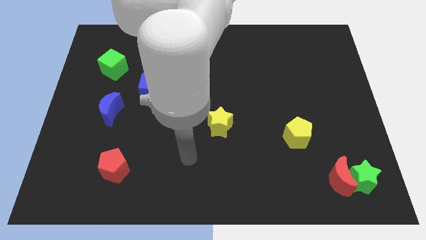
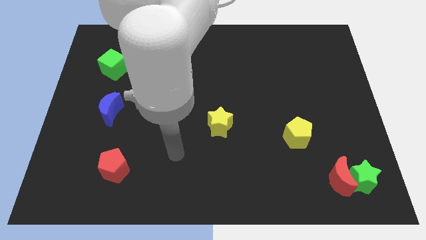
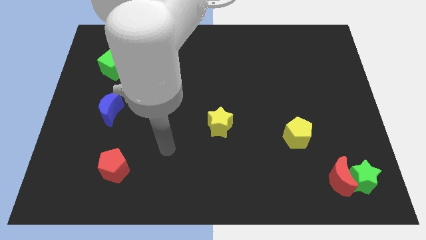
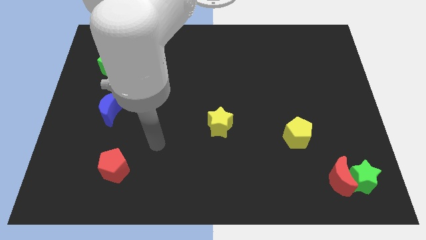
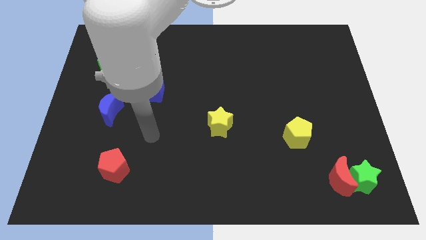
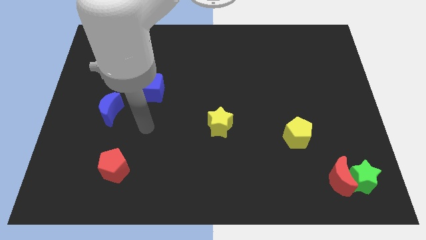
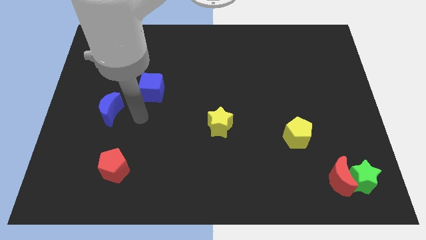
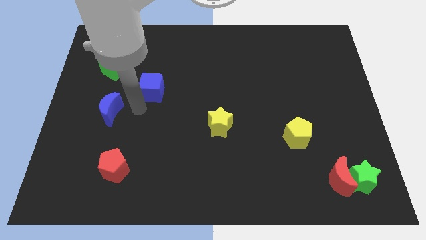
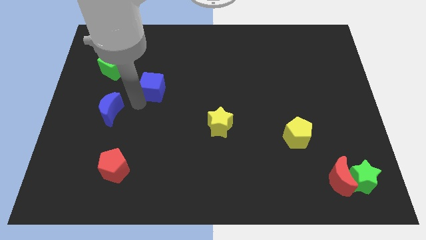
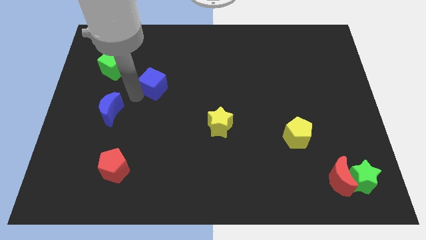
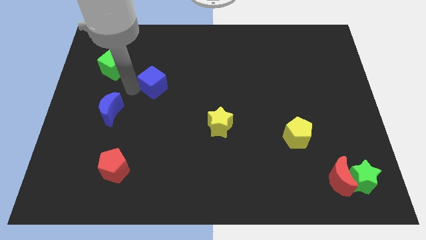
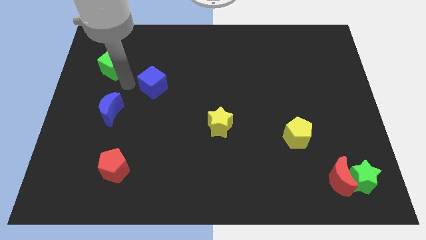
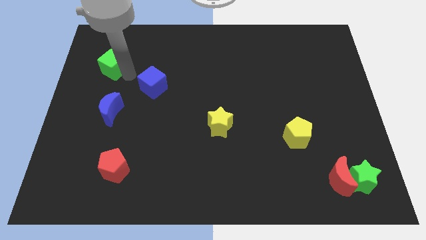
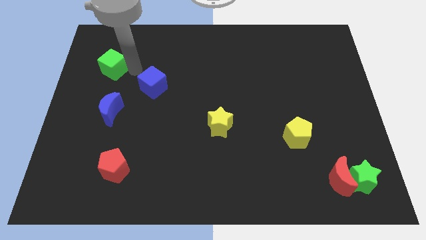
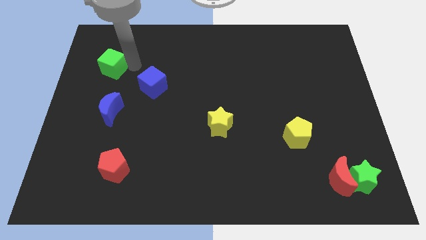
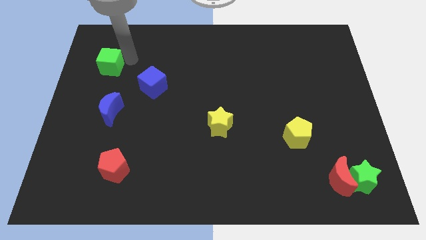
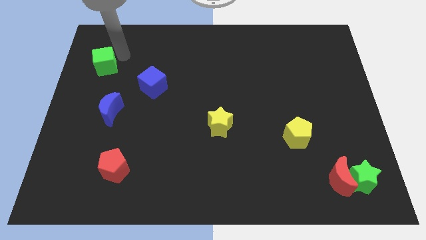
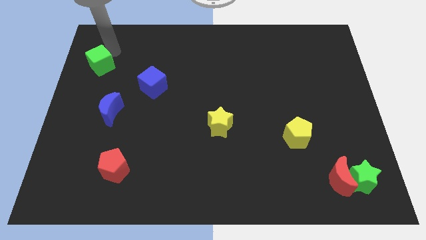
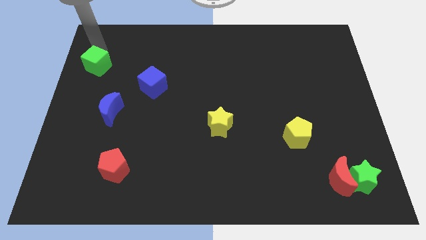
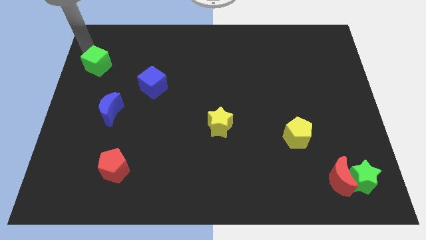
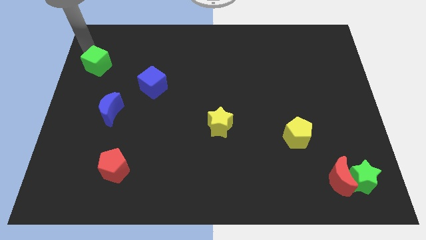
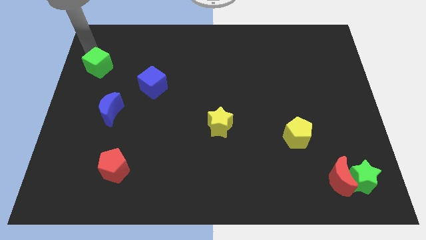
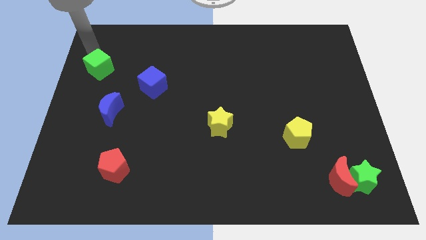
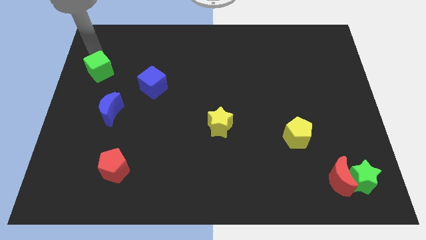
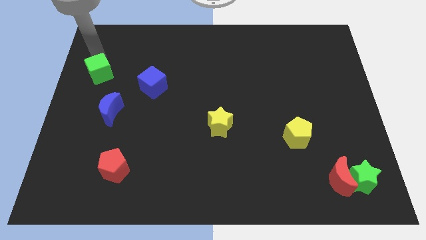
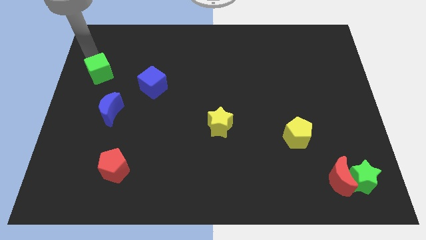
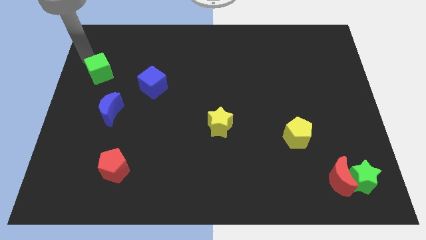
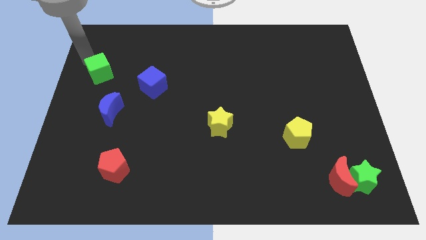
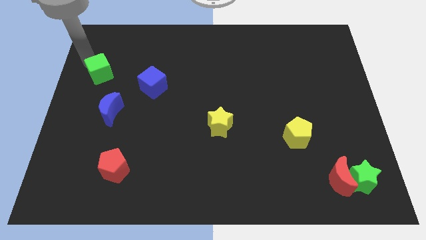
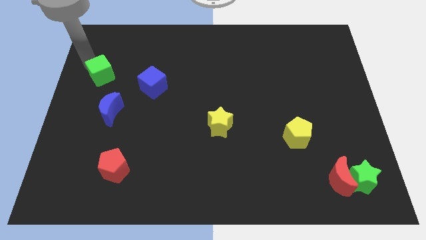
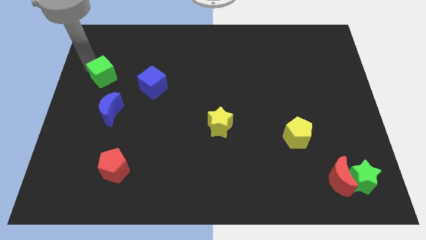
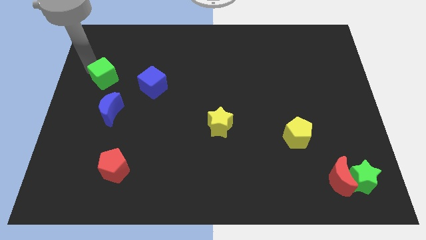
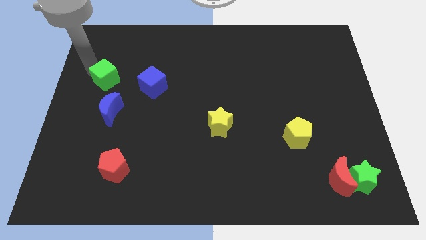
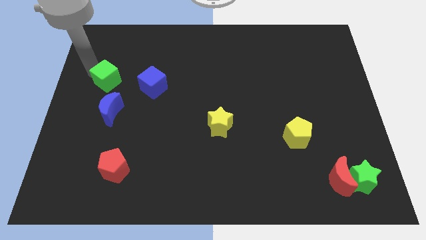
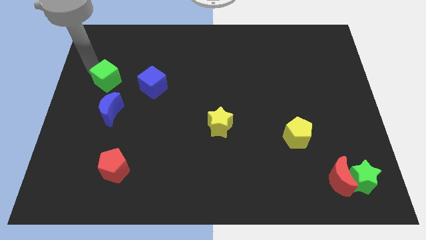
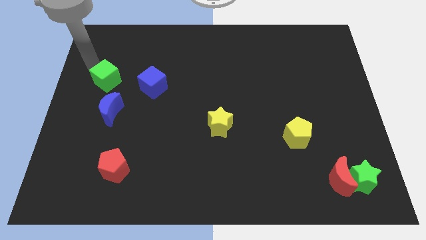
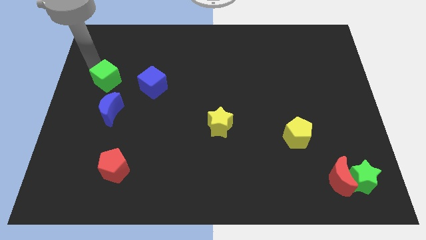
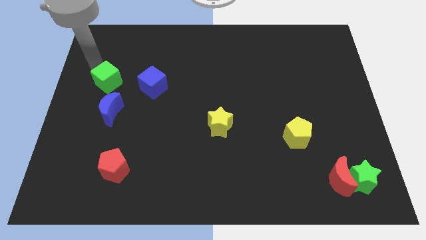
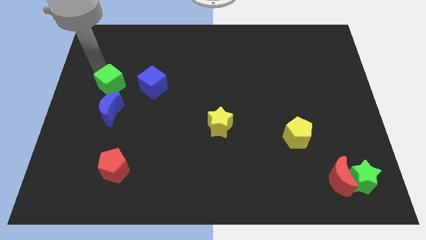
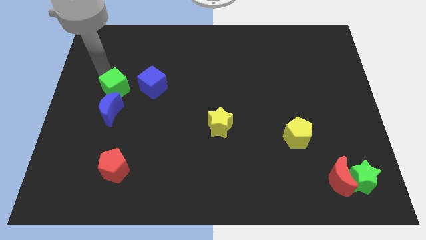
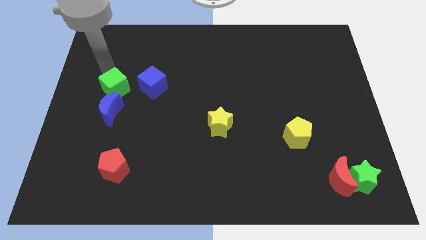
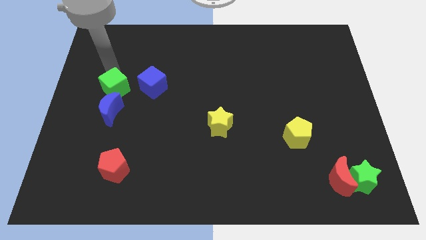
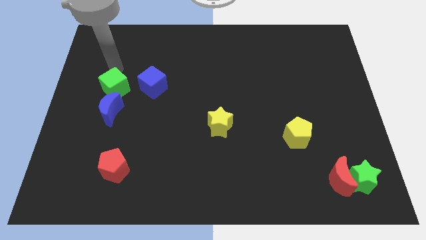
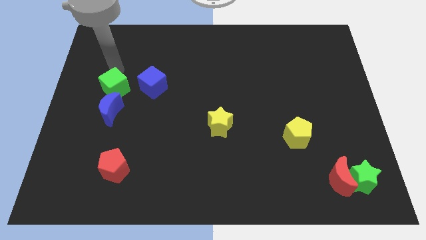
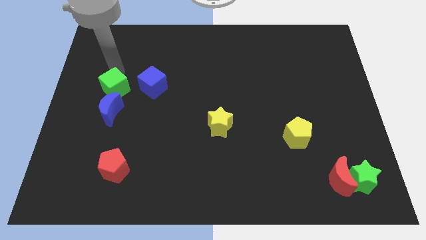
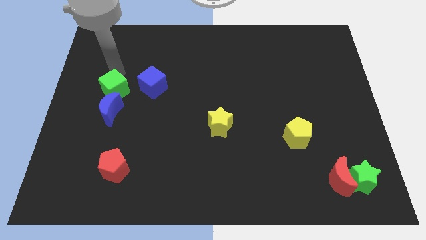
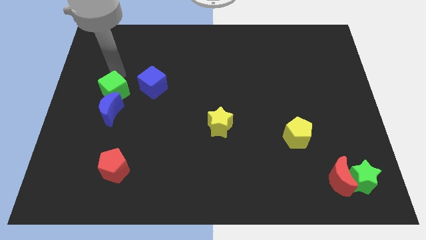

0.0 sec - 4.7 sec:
move the green cube to the blue moon

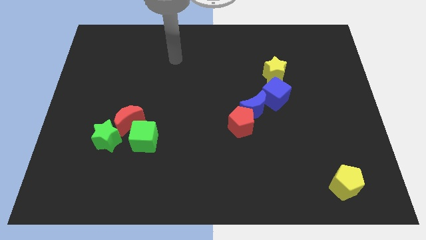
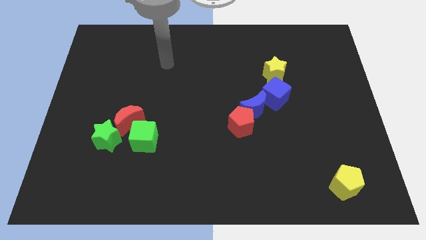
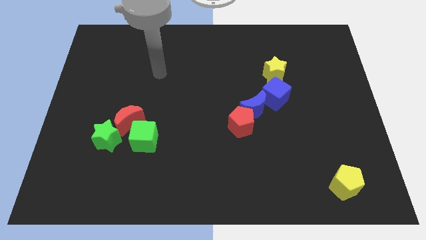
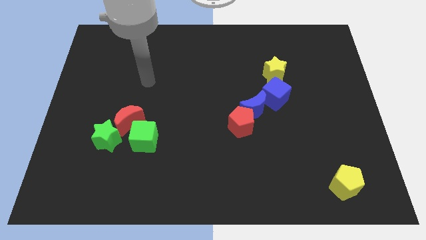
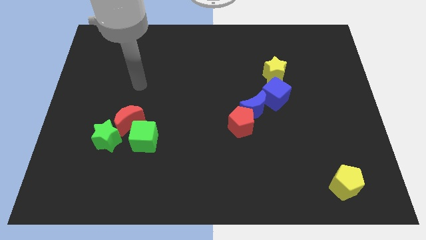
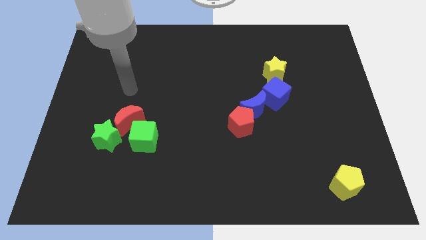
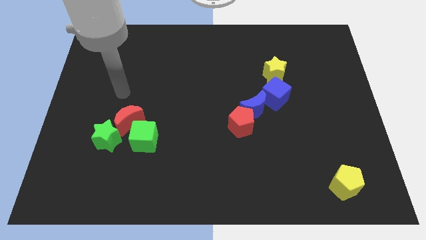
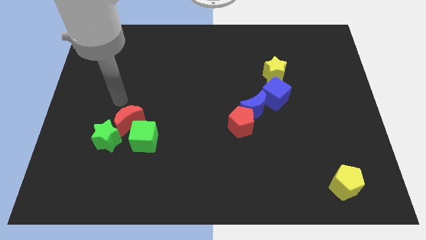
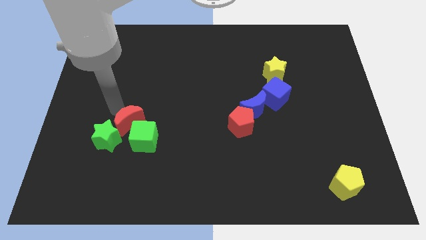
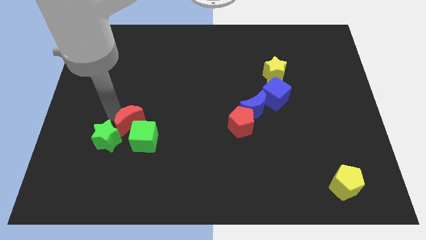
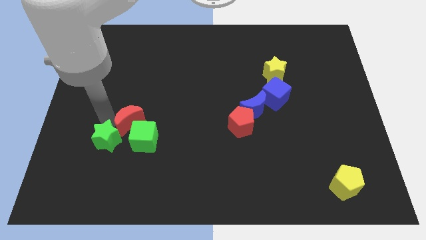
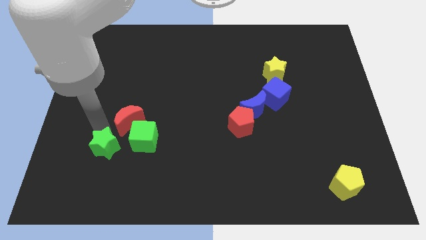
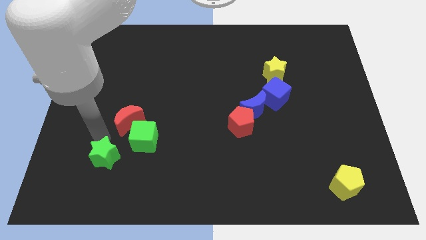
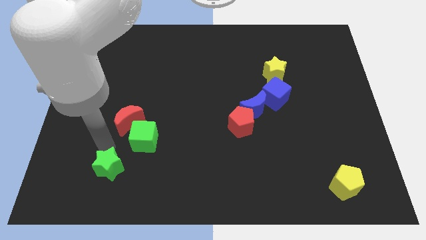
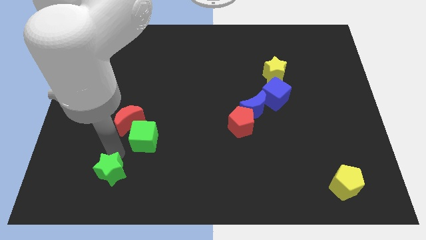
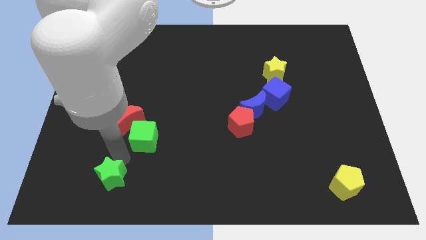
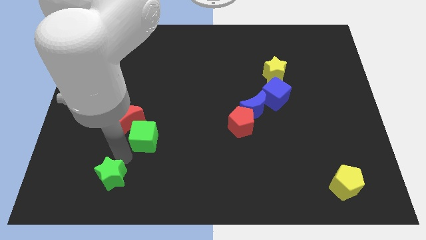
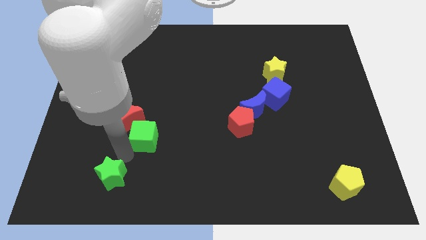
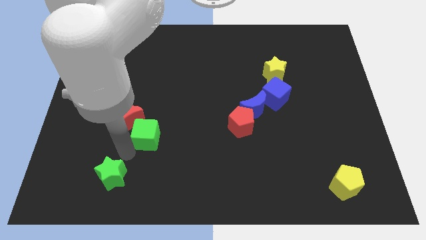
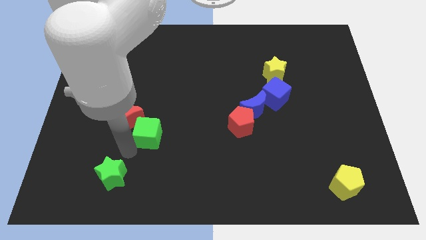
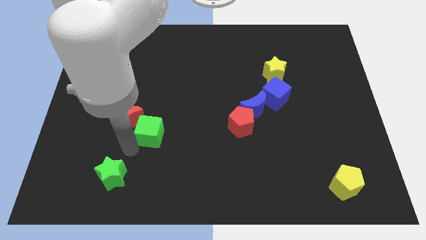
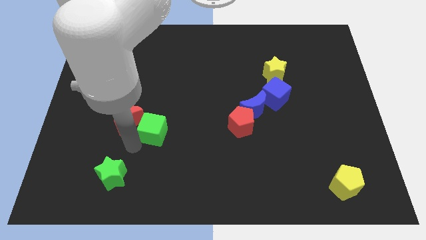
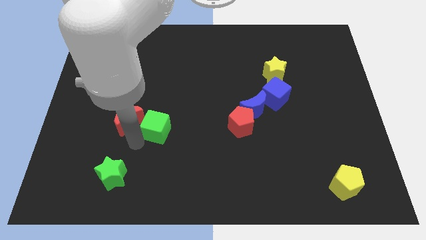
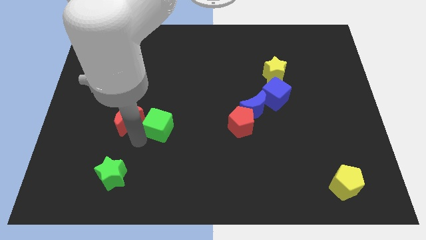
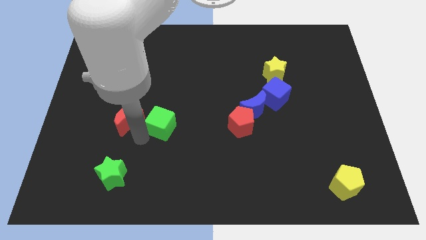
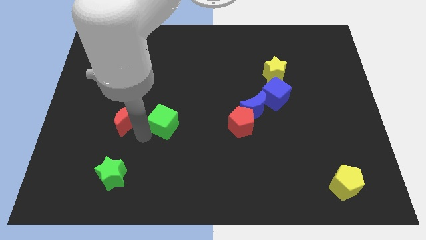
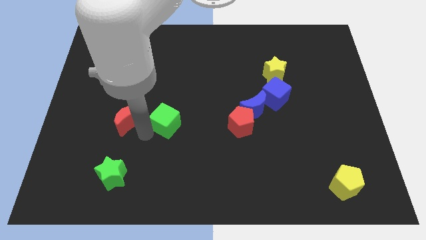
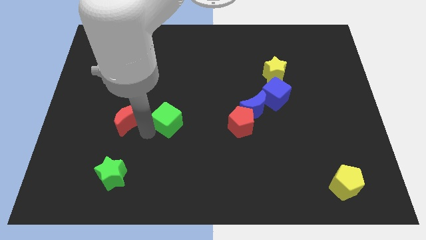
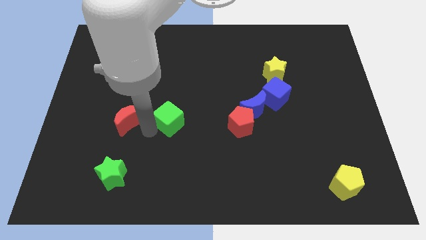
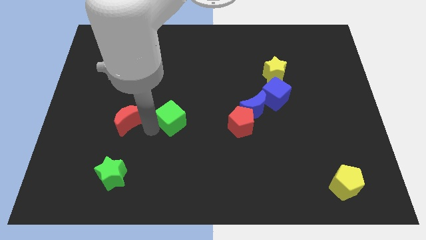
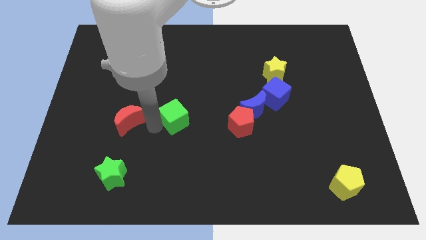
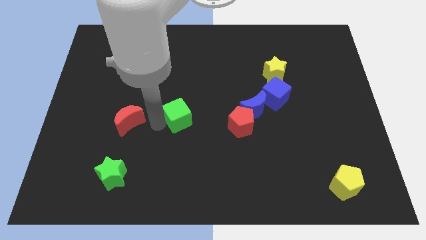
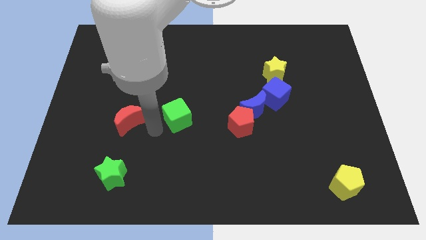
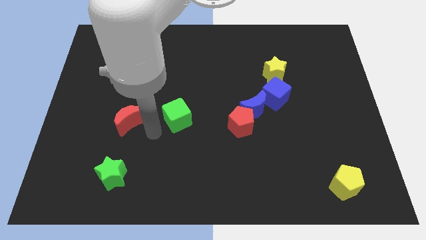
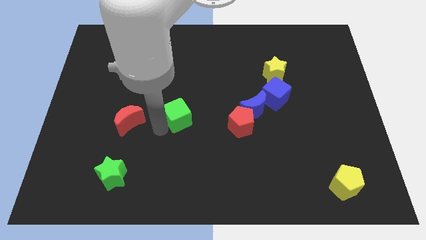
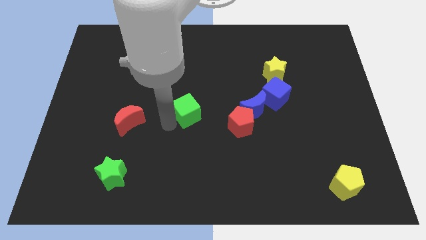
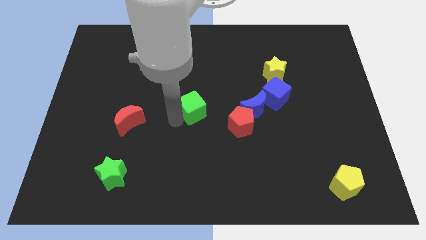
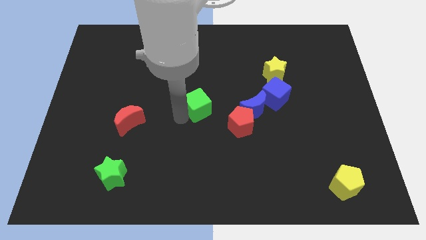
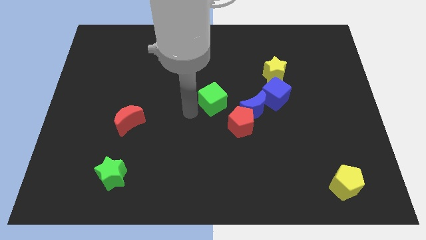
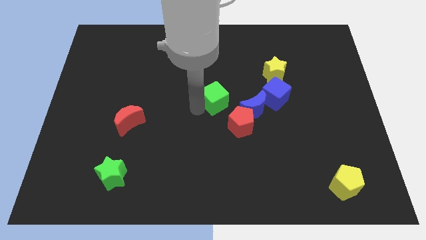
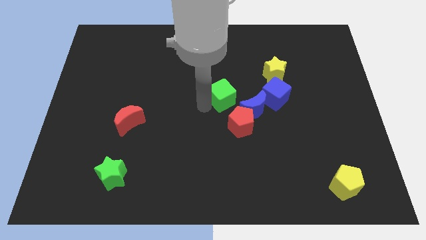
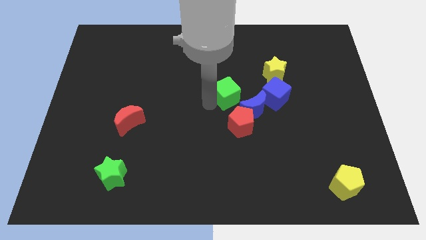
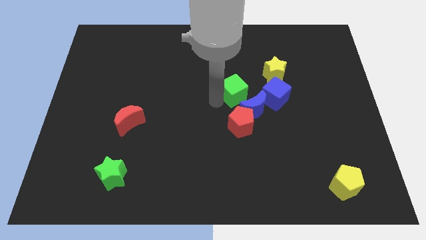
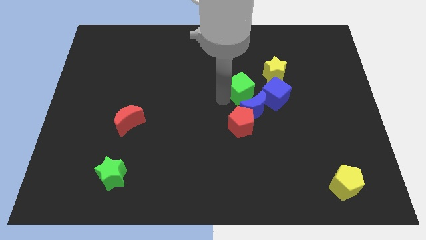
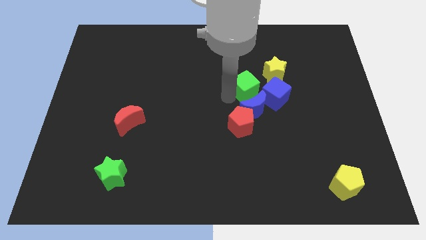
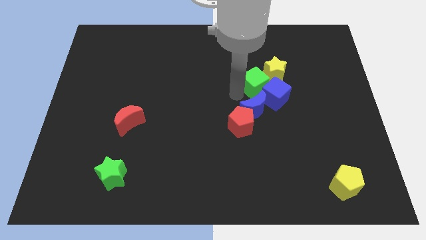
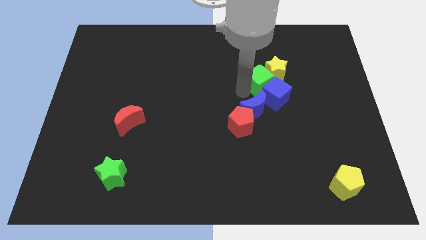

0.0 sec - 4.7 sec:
slide the green cube next to the yellow star
